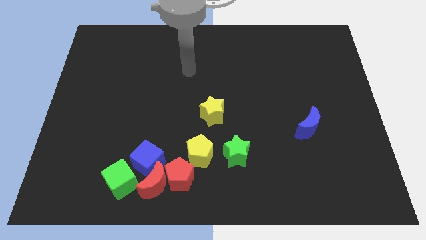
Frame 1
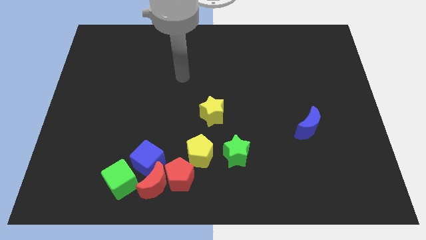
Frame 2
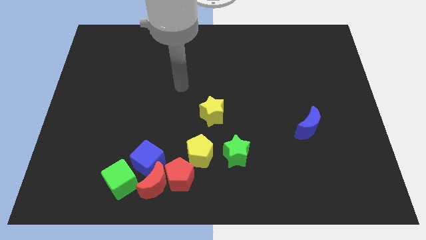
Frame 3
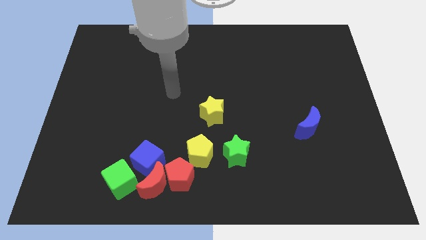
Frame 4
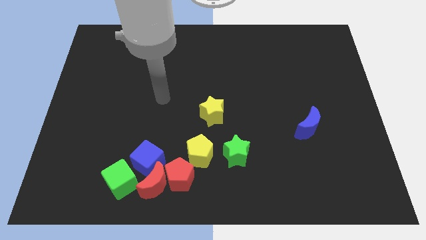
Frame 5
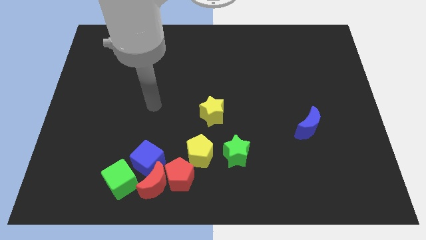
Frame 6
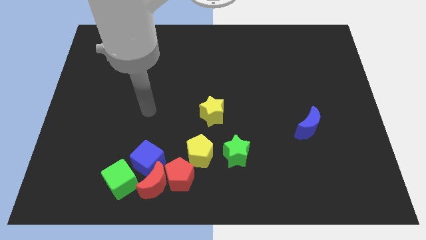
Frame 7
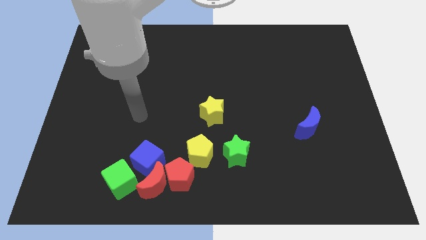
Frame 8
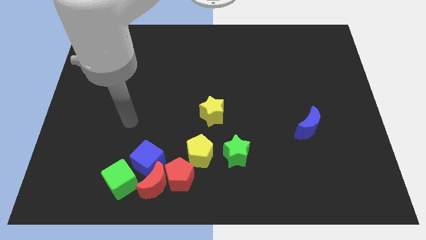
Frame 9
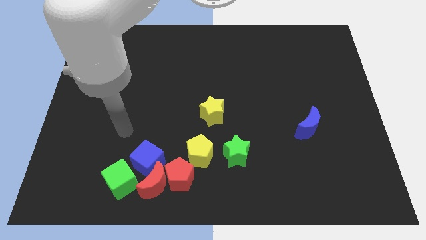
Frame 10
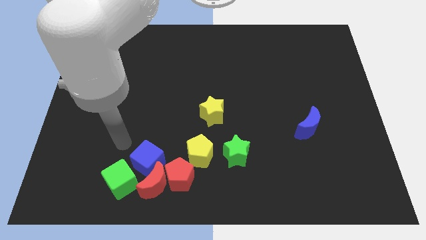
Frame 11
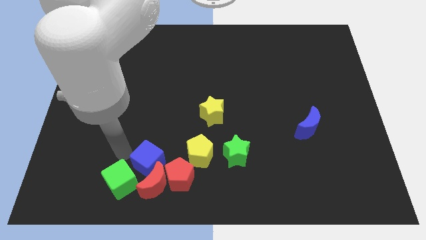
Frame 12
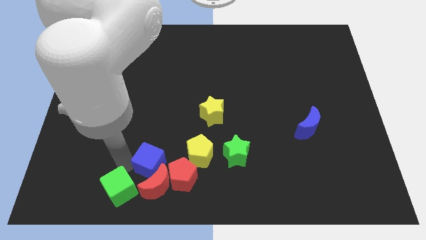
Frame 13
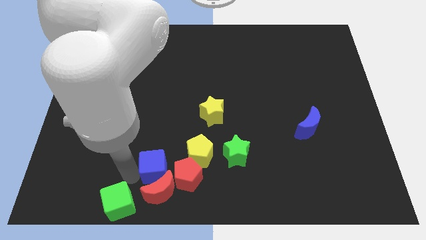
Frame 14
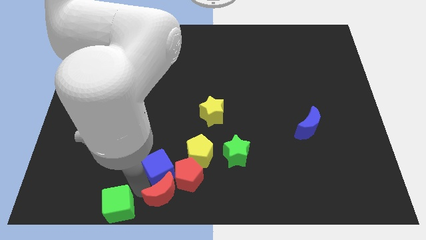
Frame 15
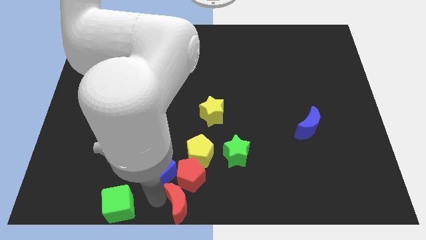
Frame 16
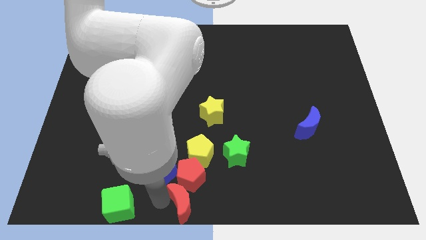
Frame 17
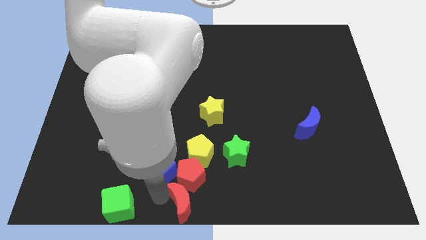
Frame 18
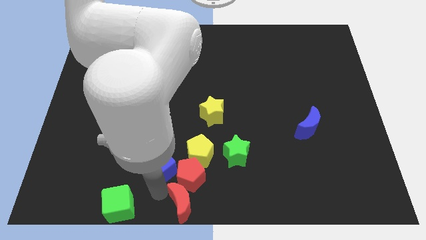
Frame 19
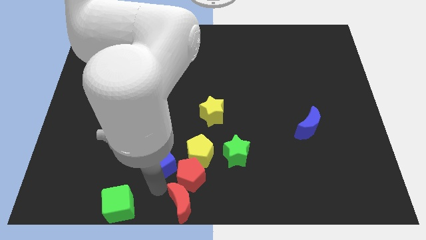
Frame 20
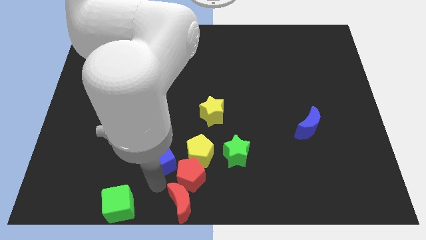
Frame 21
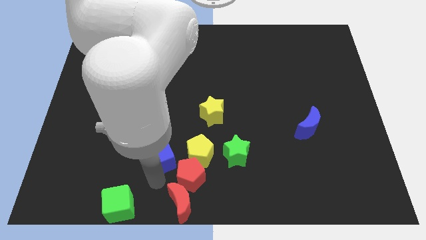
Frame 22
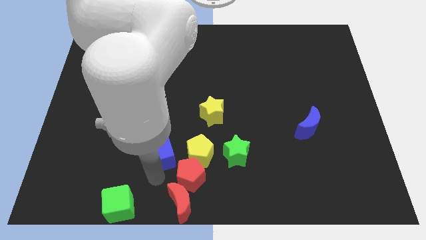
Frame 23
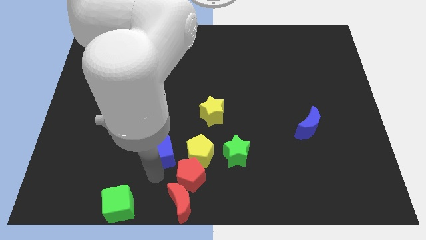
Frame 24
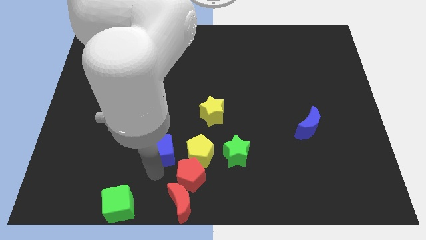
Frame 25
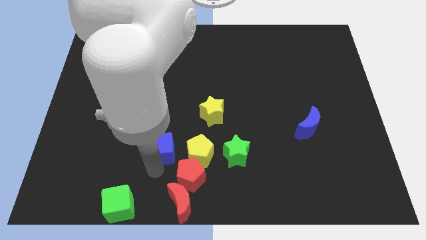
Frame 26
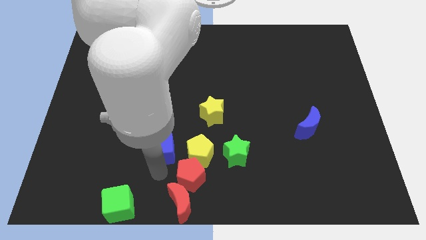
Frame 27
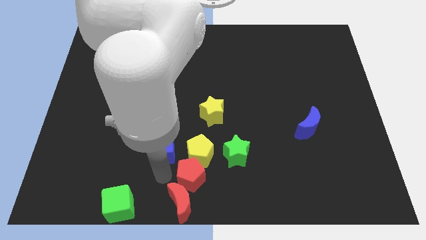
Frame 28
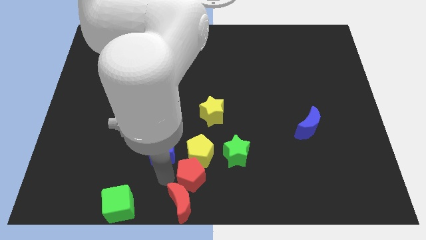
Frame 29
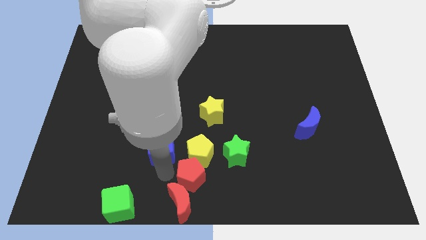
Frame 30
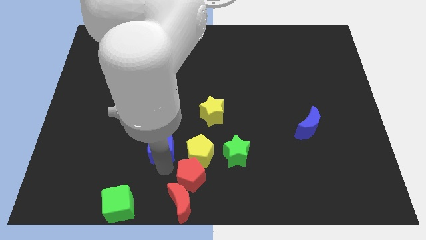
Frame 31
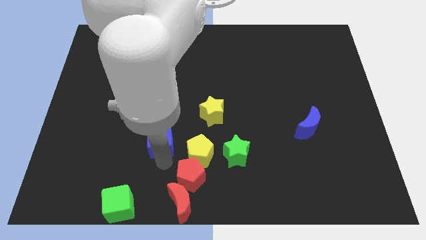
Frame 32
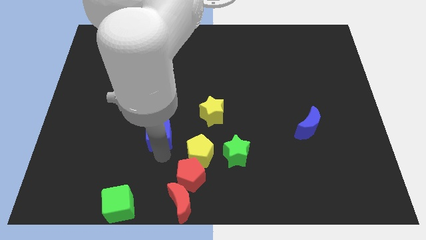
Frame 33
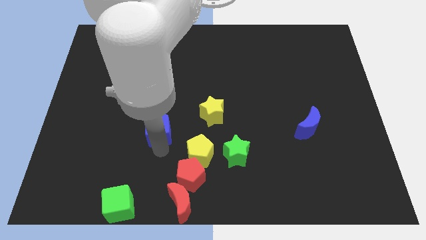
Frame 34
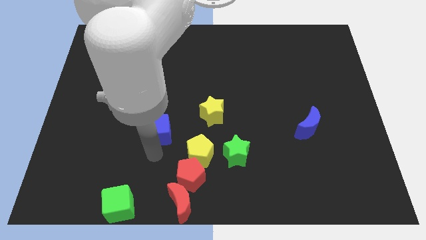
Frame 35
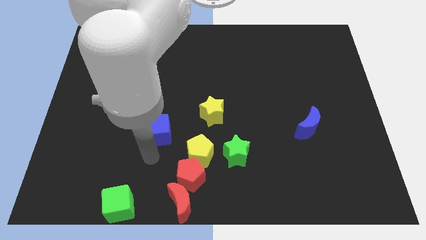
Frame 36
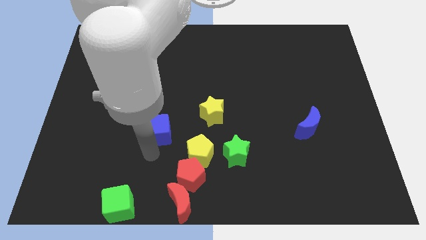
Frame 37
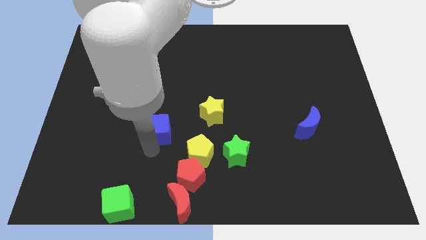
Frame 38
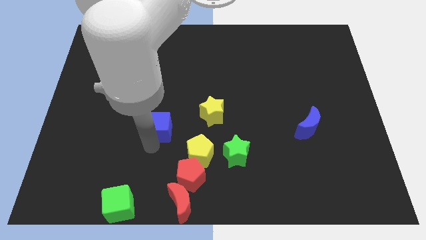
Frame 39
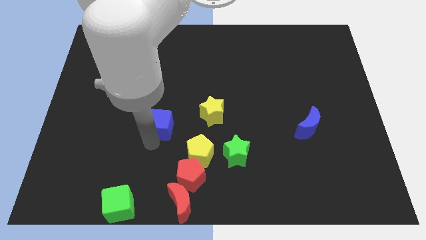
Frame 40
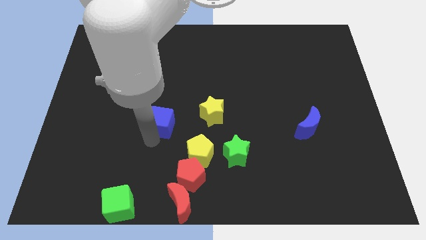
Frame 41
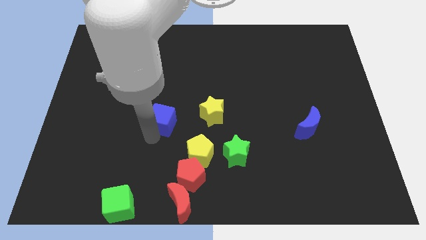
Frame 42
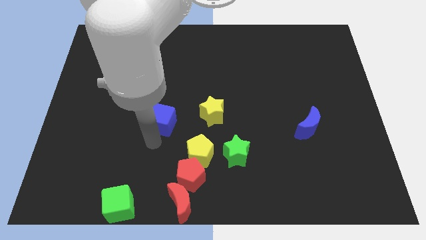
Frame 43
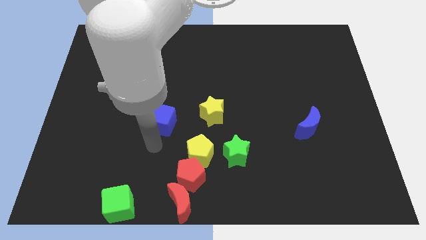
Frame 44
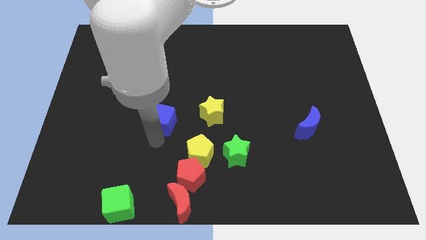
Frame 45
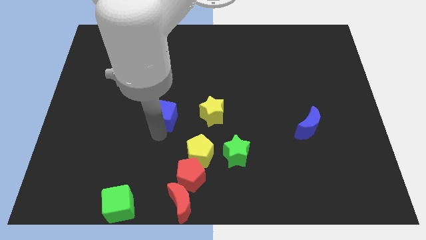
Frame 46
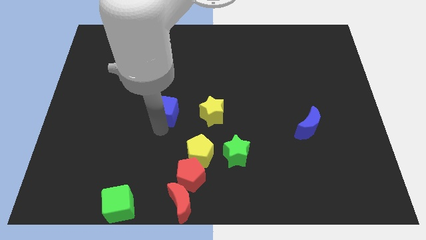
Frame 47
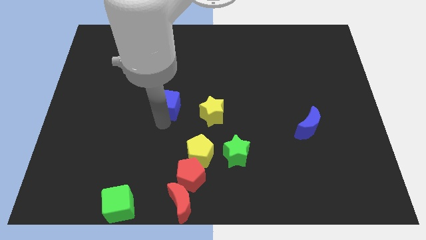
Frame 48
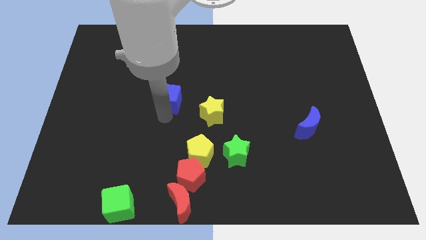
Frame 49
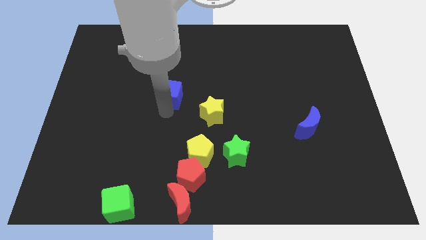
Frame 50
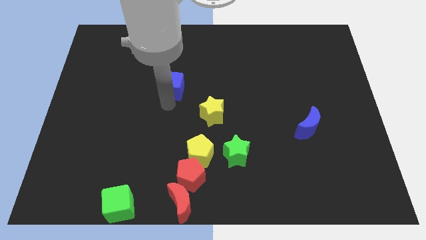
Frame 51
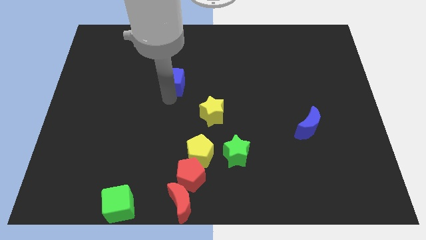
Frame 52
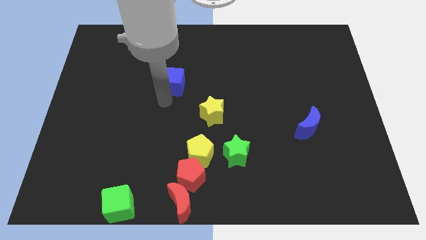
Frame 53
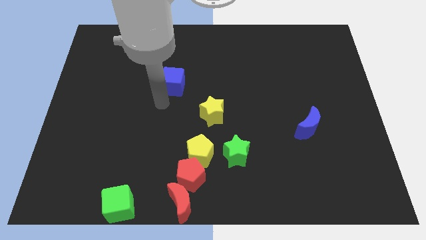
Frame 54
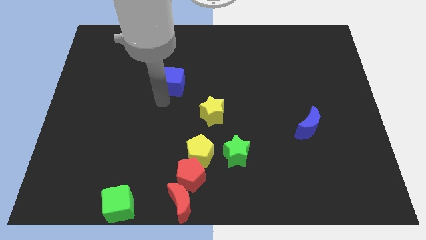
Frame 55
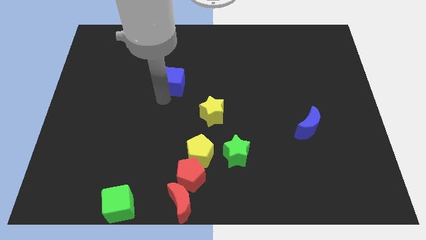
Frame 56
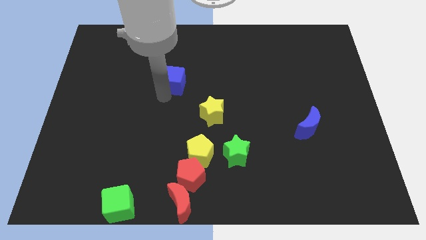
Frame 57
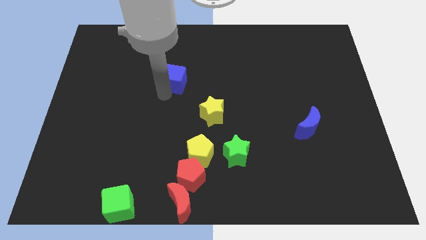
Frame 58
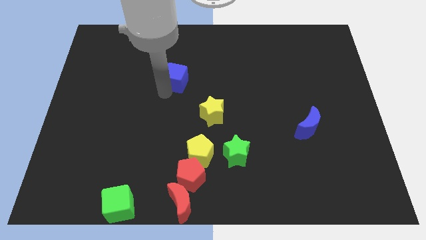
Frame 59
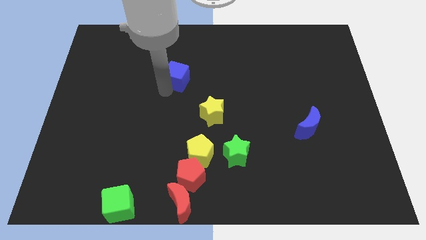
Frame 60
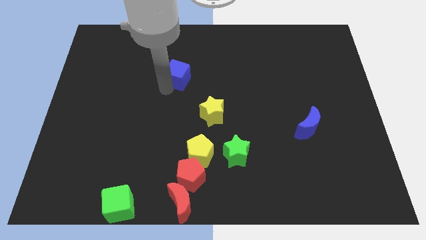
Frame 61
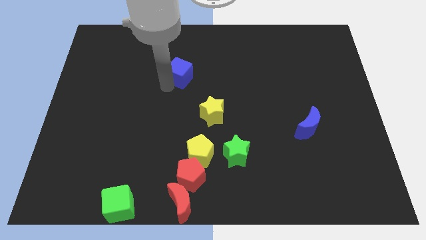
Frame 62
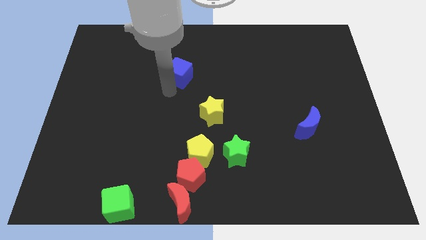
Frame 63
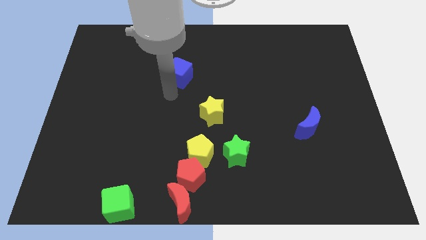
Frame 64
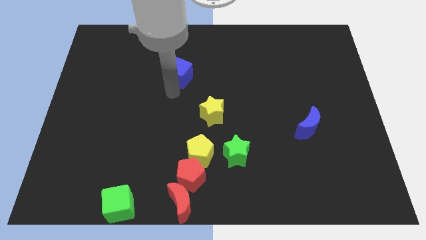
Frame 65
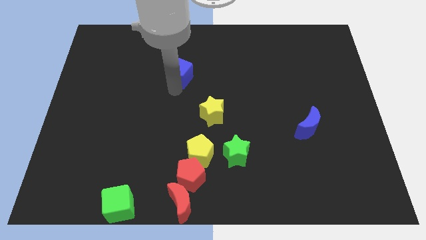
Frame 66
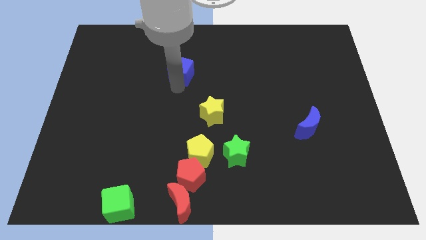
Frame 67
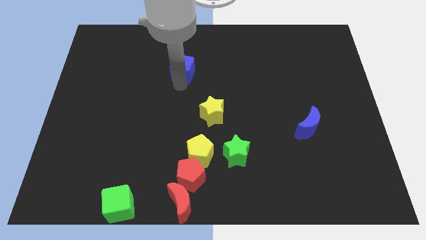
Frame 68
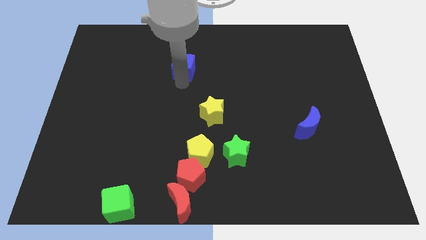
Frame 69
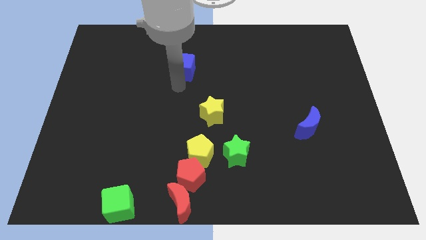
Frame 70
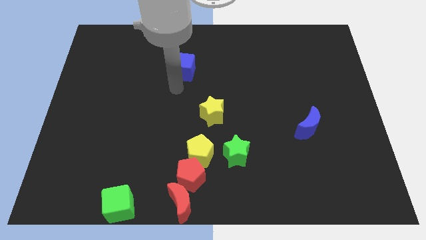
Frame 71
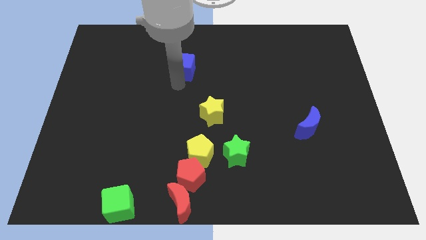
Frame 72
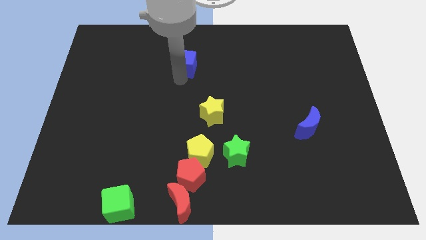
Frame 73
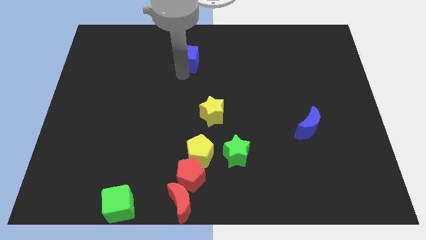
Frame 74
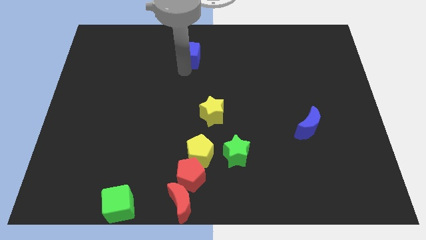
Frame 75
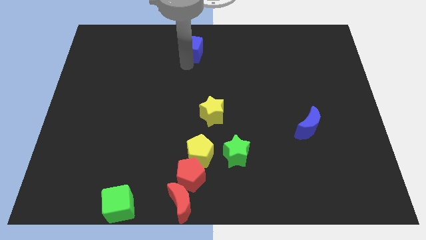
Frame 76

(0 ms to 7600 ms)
put the blue cube to the top side
